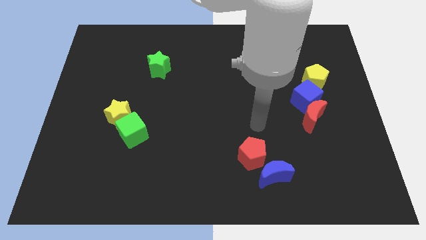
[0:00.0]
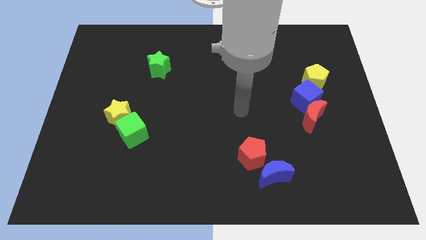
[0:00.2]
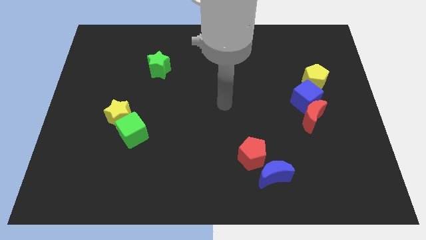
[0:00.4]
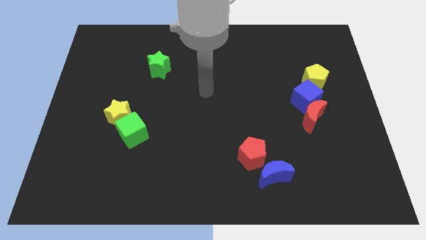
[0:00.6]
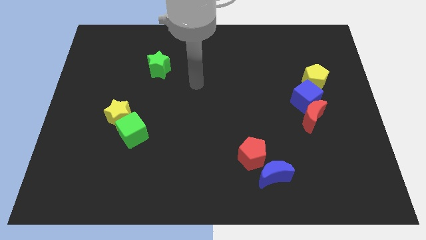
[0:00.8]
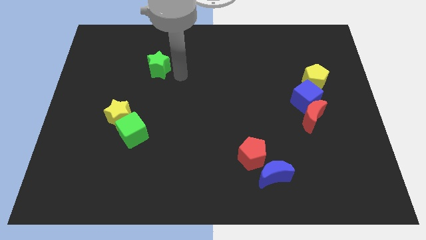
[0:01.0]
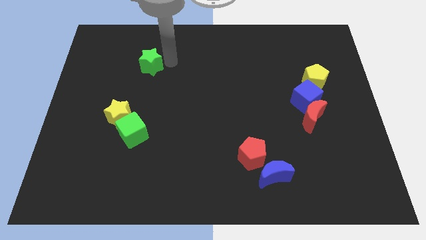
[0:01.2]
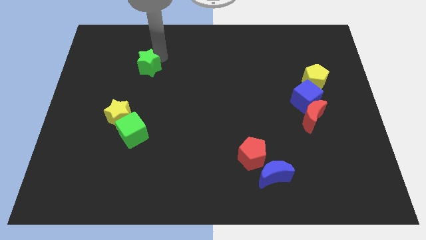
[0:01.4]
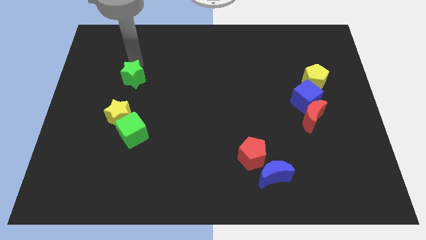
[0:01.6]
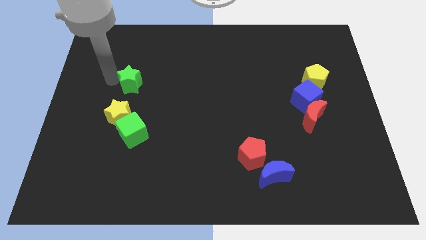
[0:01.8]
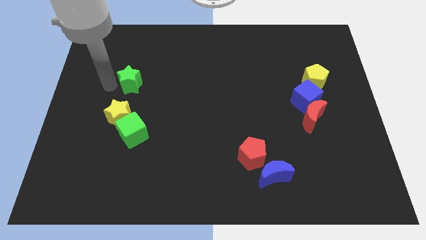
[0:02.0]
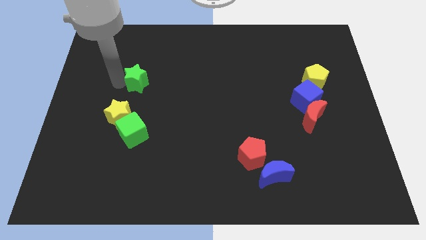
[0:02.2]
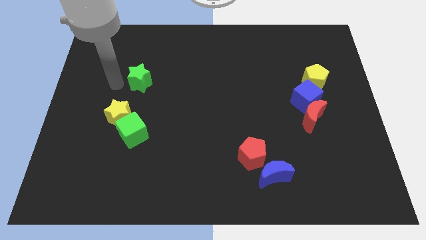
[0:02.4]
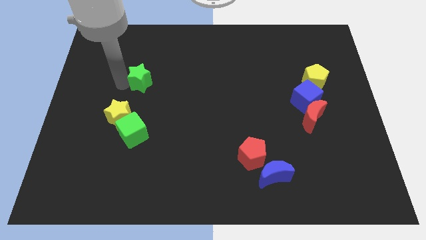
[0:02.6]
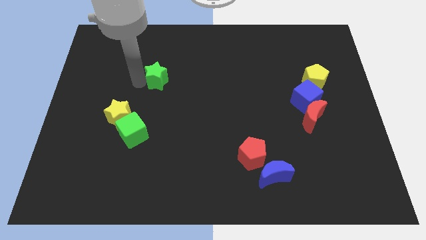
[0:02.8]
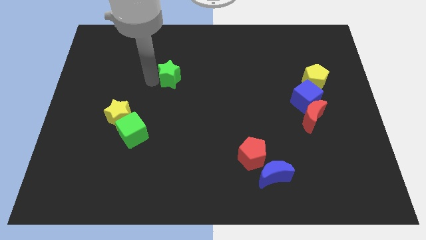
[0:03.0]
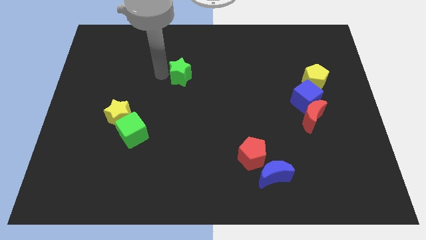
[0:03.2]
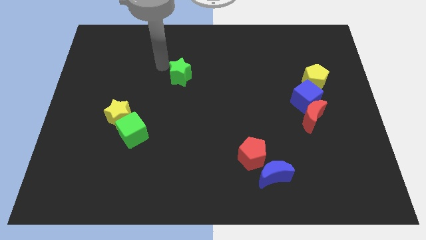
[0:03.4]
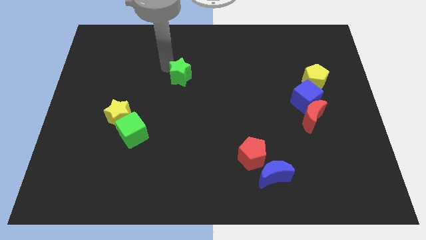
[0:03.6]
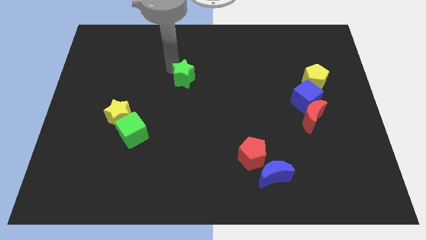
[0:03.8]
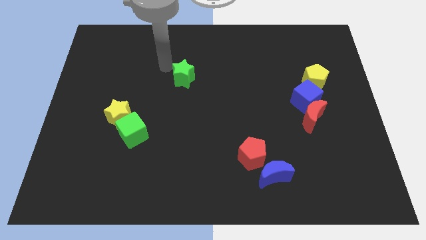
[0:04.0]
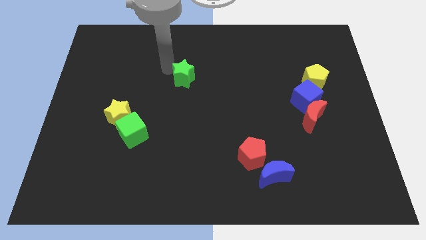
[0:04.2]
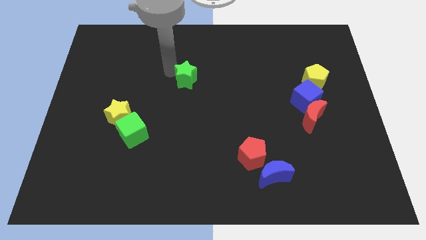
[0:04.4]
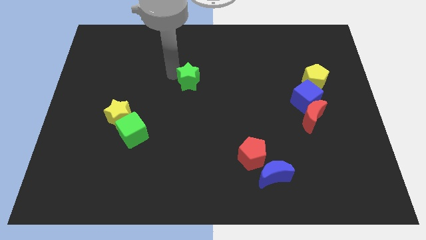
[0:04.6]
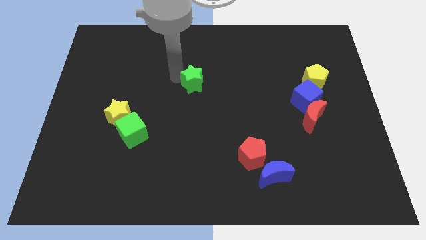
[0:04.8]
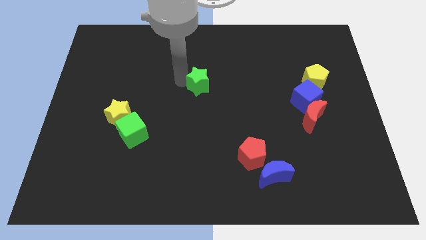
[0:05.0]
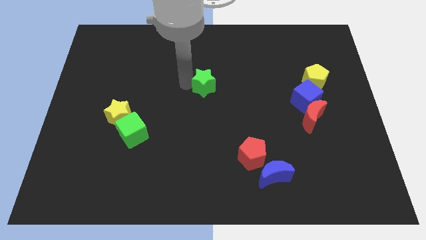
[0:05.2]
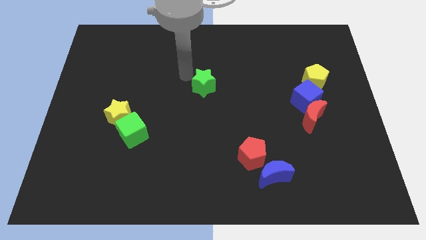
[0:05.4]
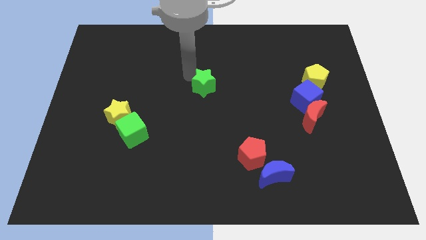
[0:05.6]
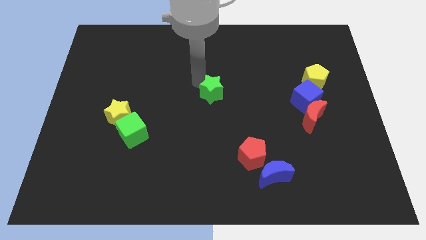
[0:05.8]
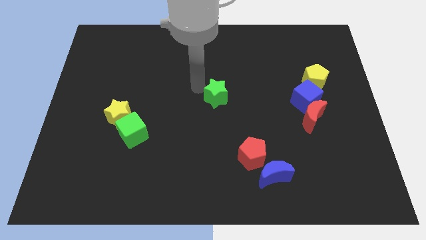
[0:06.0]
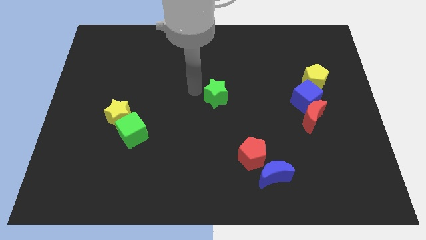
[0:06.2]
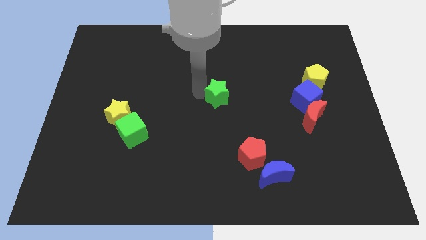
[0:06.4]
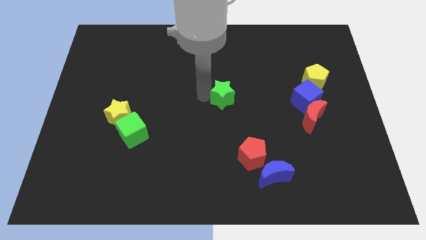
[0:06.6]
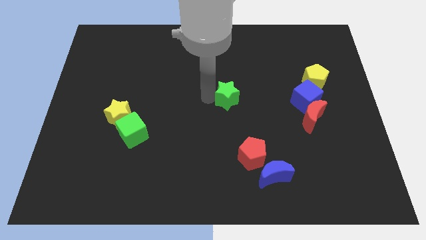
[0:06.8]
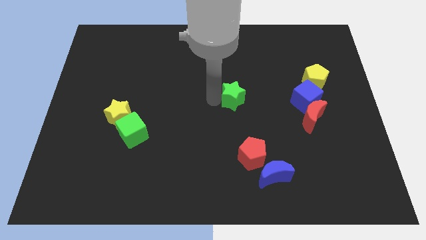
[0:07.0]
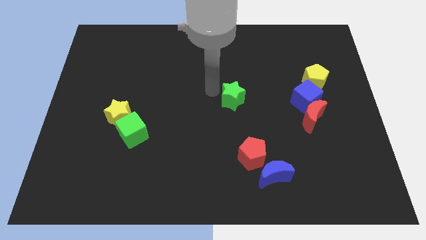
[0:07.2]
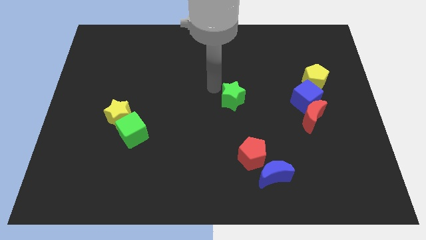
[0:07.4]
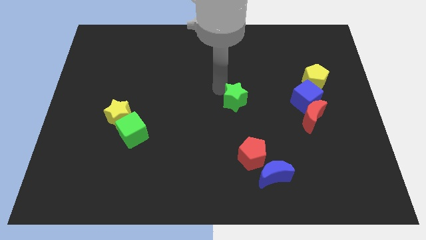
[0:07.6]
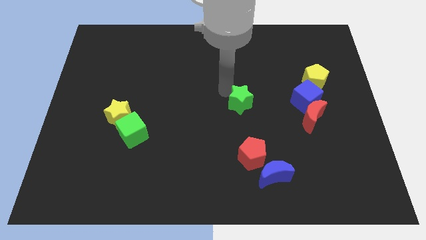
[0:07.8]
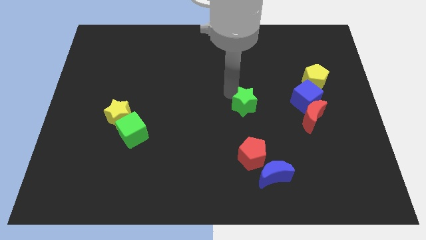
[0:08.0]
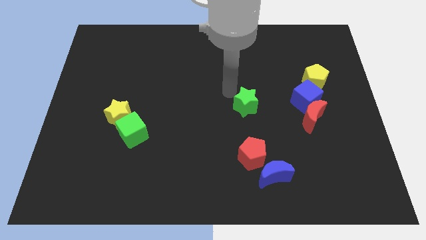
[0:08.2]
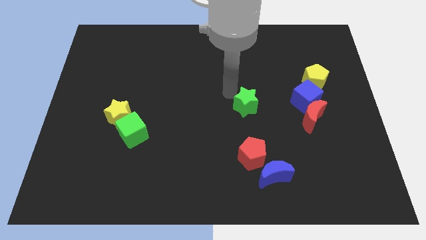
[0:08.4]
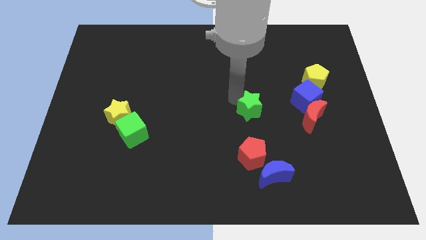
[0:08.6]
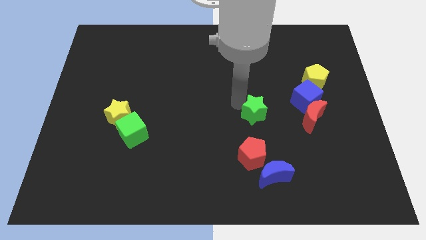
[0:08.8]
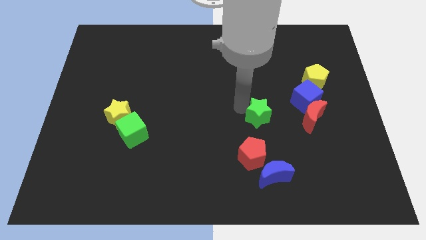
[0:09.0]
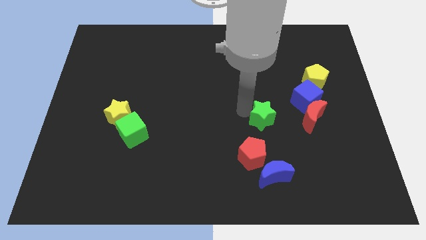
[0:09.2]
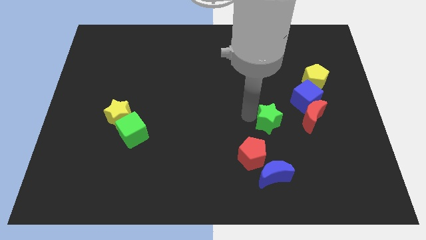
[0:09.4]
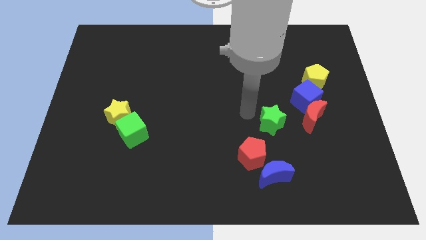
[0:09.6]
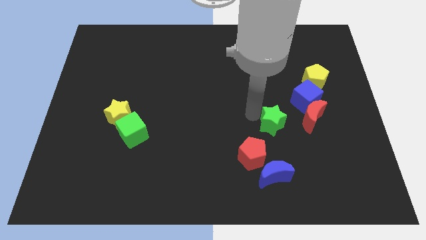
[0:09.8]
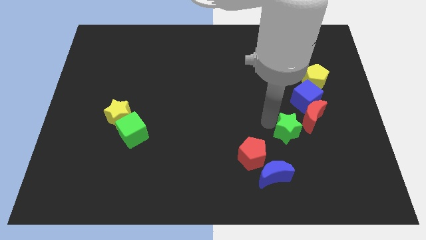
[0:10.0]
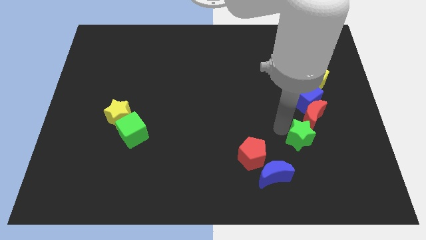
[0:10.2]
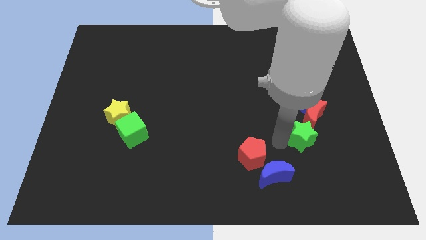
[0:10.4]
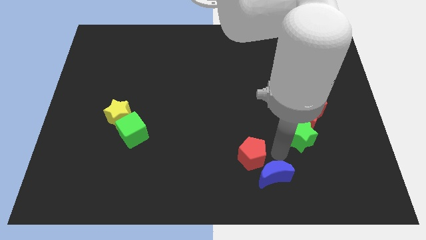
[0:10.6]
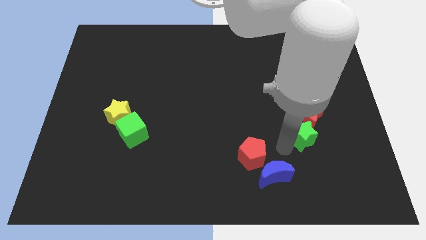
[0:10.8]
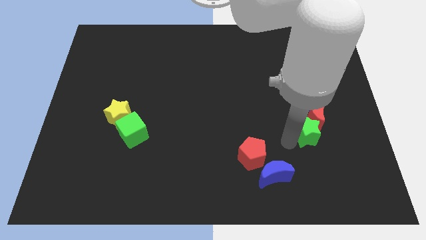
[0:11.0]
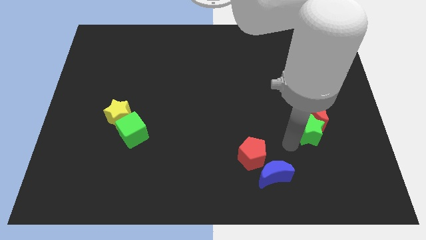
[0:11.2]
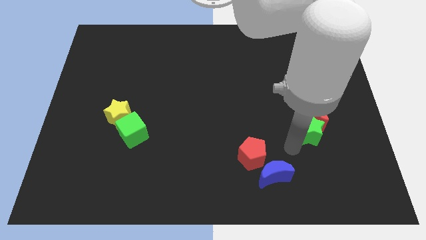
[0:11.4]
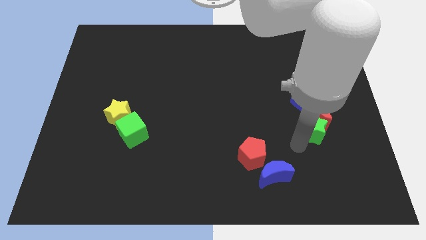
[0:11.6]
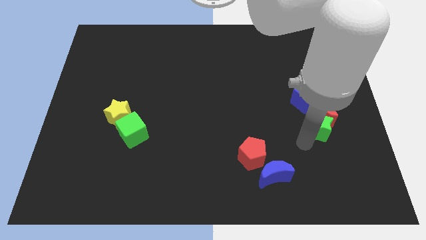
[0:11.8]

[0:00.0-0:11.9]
slide the green star to the bottom right side of the blue cube

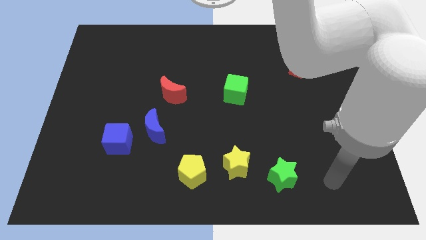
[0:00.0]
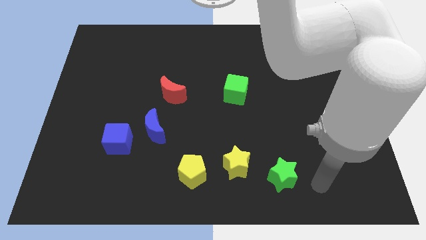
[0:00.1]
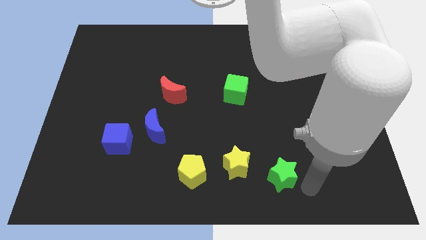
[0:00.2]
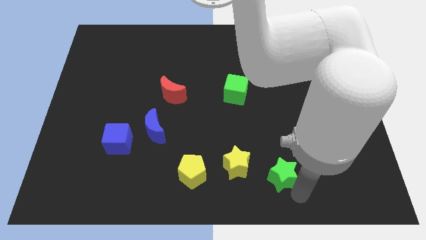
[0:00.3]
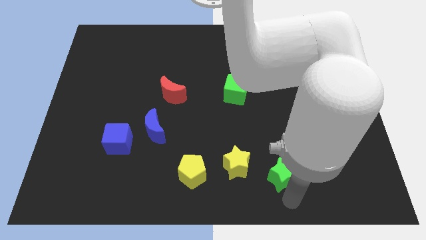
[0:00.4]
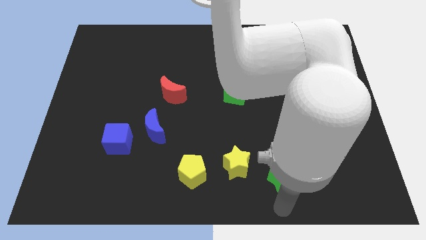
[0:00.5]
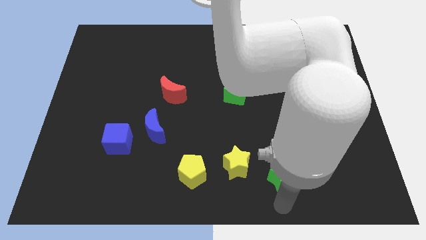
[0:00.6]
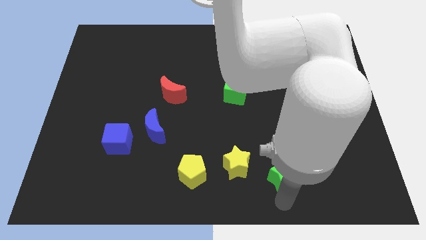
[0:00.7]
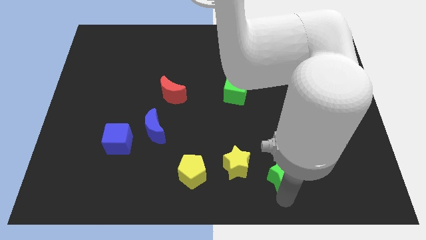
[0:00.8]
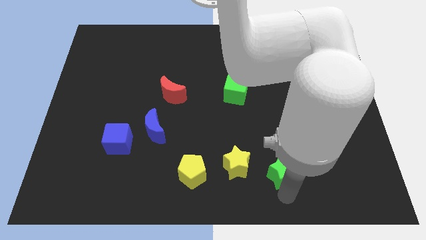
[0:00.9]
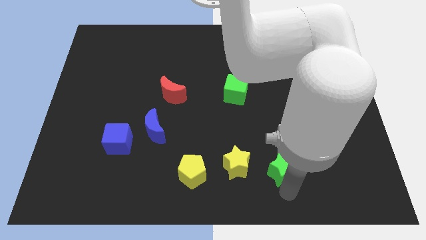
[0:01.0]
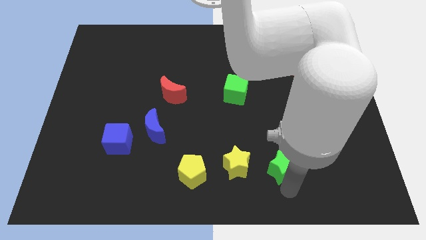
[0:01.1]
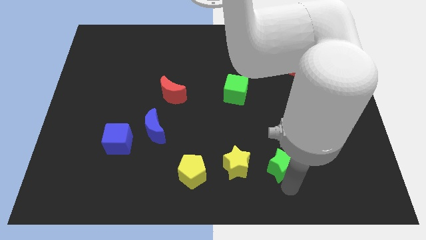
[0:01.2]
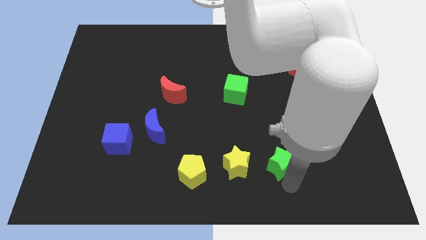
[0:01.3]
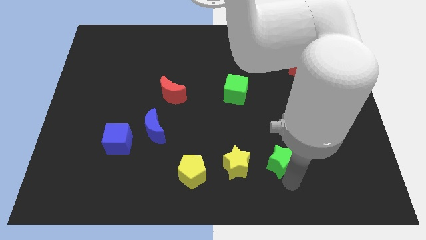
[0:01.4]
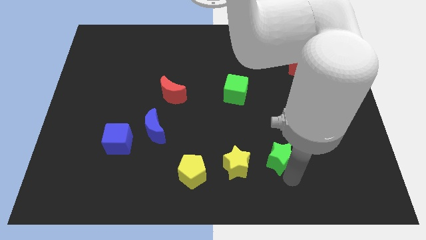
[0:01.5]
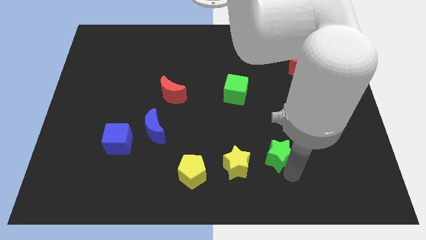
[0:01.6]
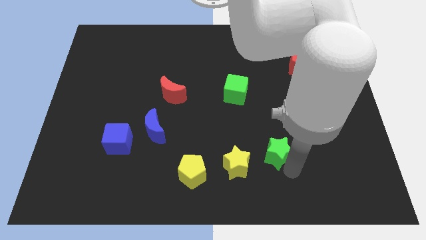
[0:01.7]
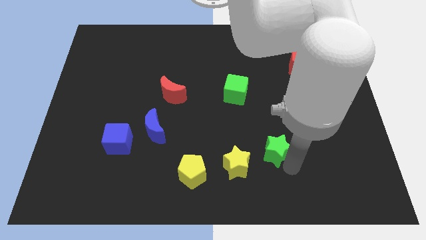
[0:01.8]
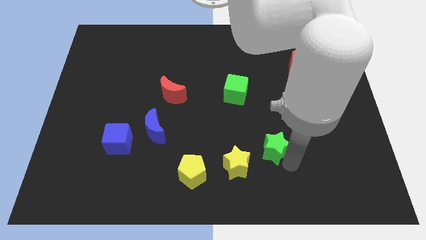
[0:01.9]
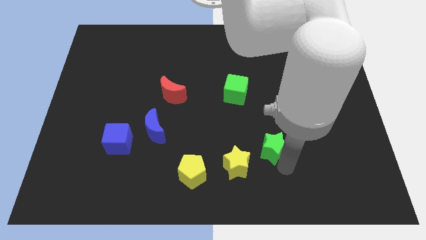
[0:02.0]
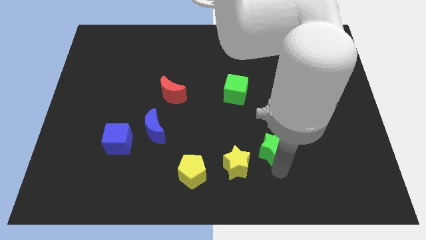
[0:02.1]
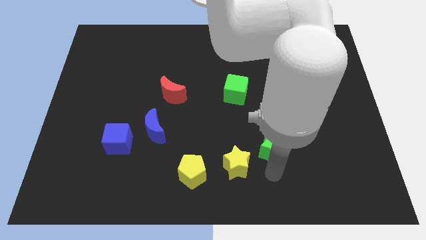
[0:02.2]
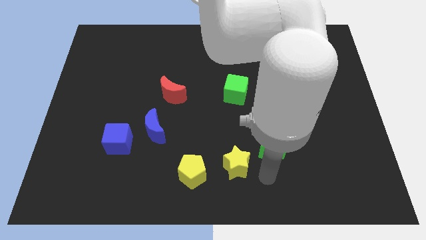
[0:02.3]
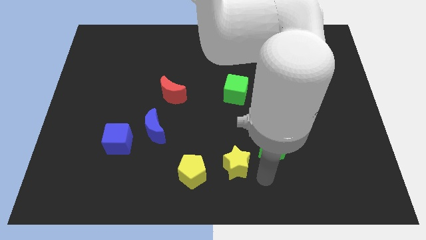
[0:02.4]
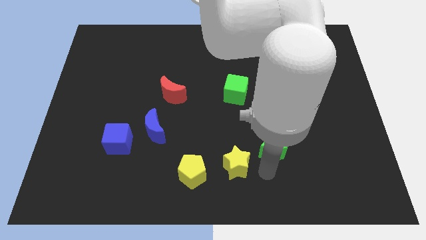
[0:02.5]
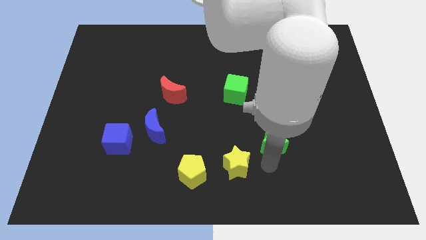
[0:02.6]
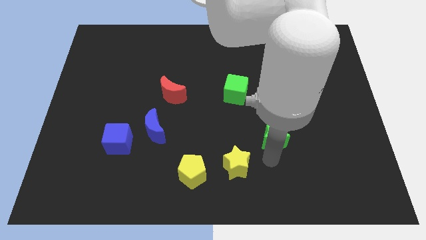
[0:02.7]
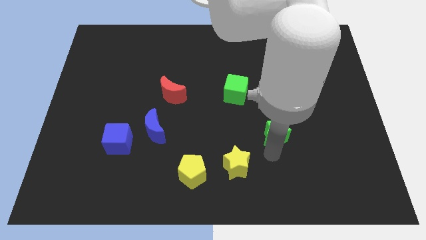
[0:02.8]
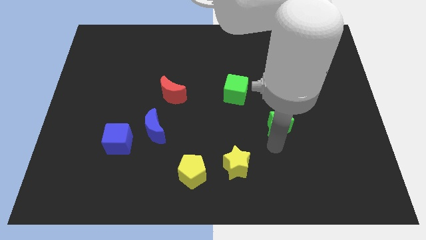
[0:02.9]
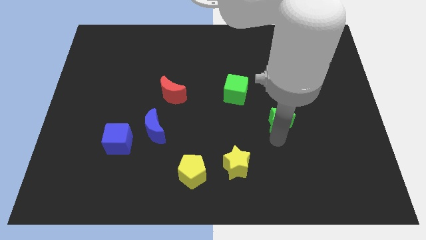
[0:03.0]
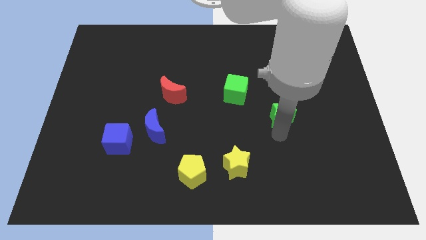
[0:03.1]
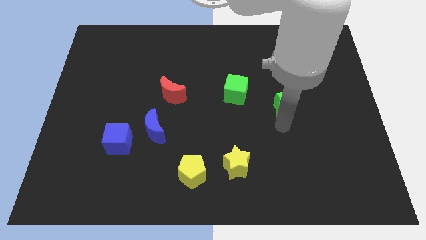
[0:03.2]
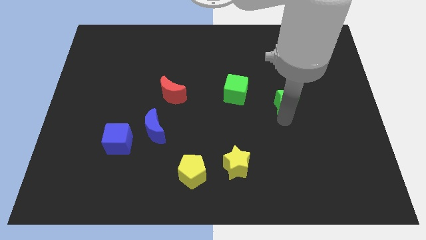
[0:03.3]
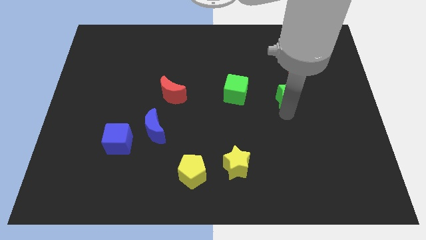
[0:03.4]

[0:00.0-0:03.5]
put the green star diagonally down and to the left of the red pentagon
